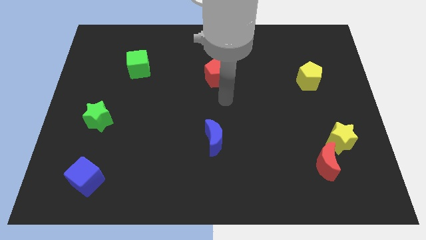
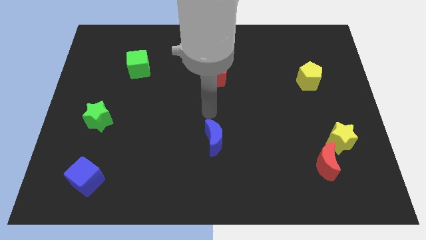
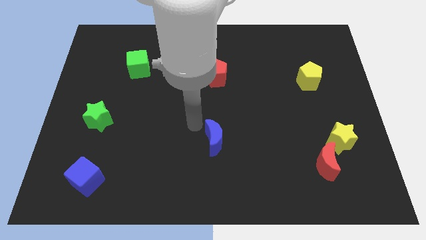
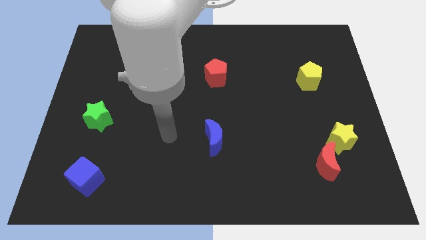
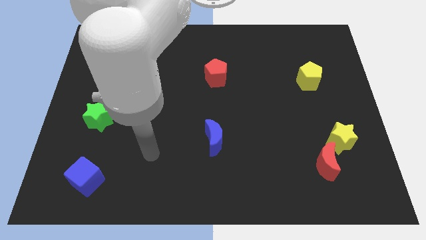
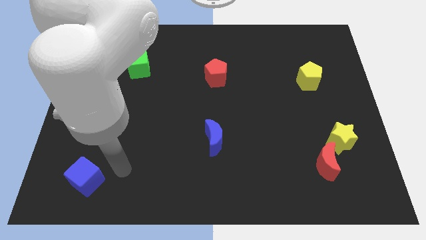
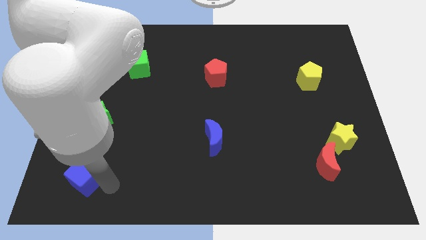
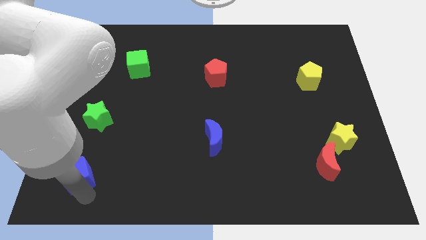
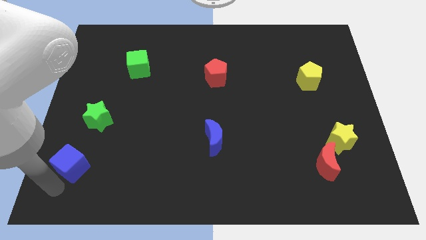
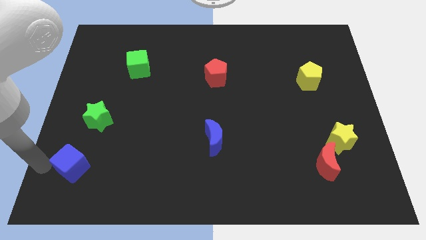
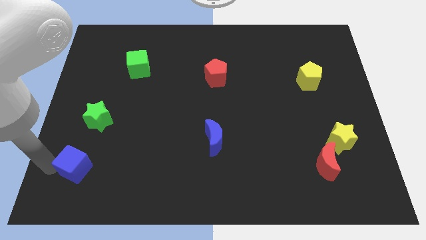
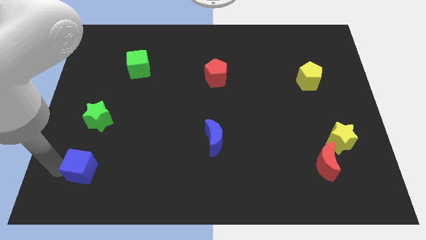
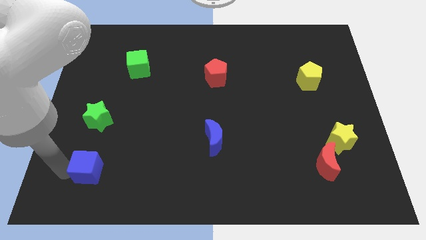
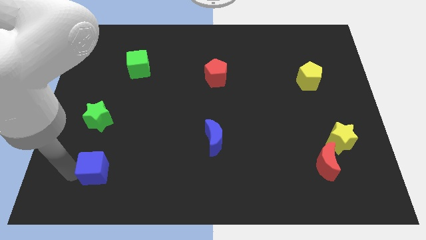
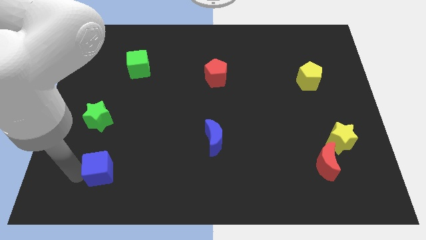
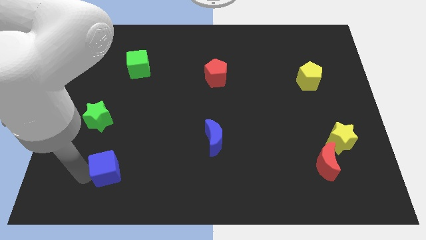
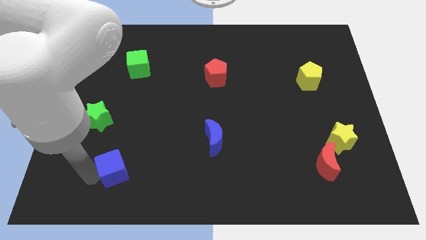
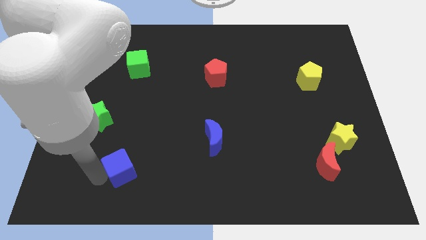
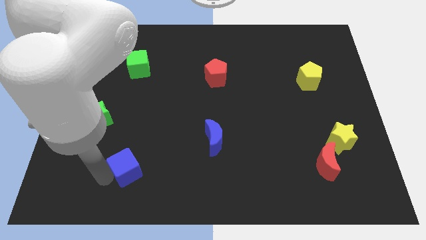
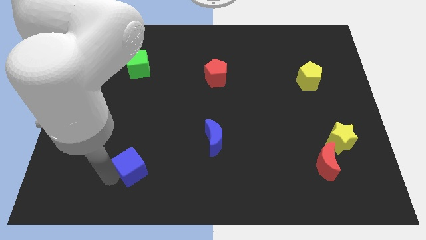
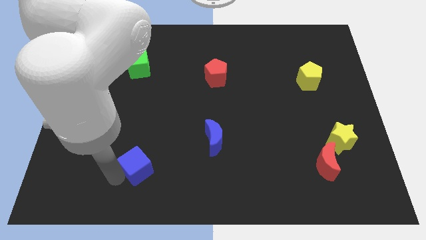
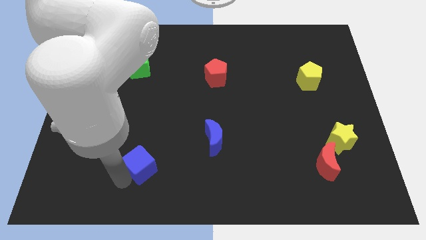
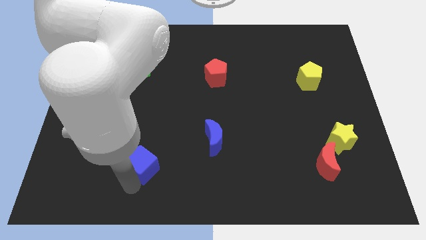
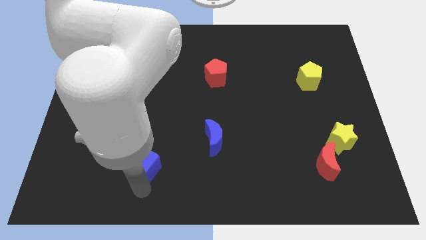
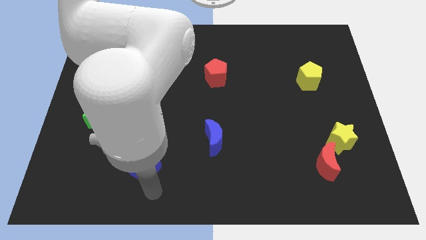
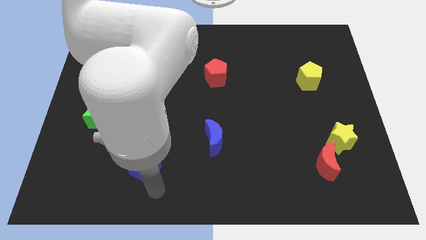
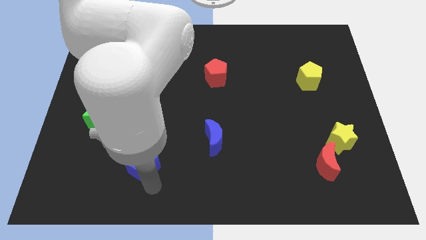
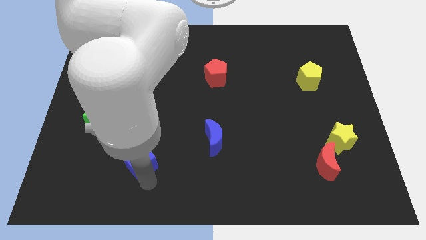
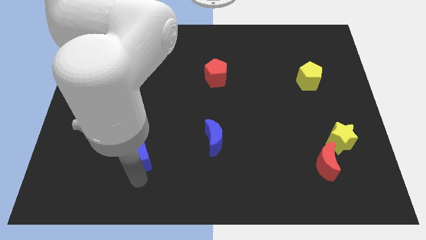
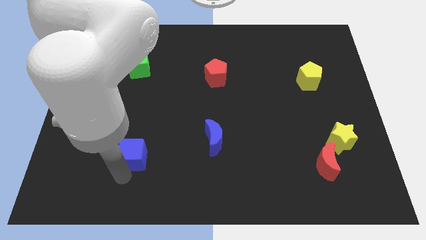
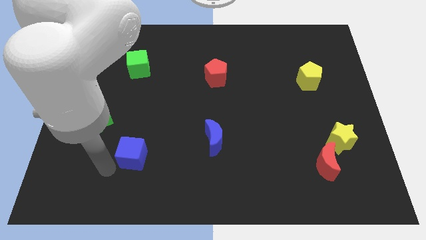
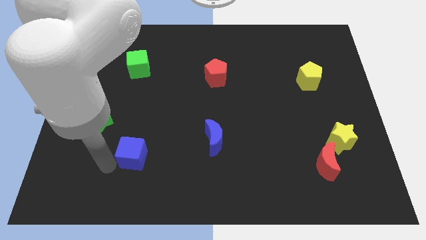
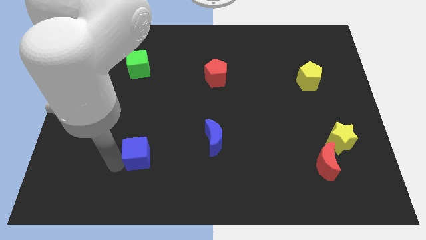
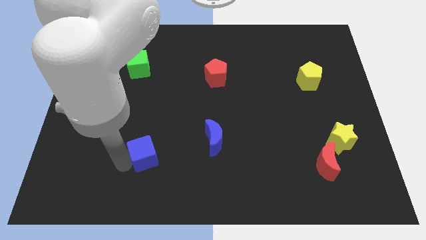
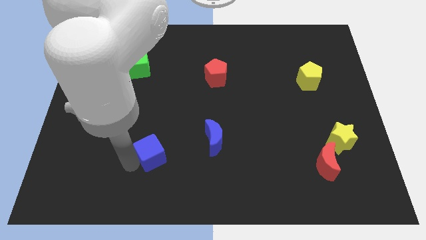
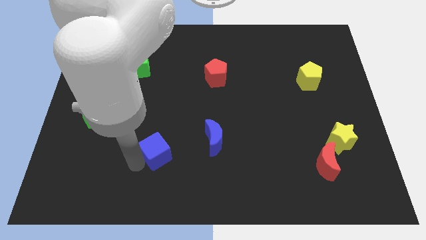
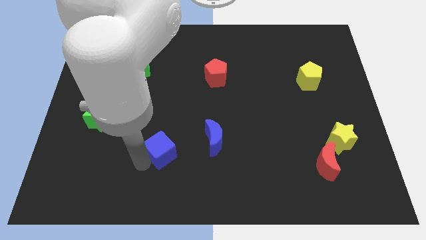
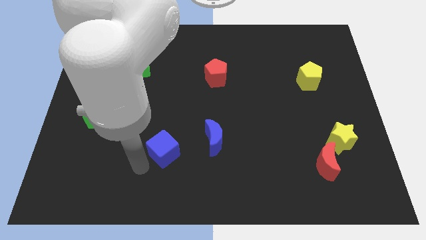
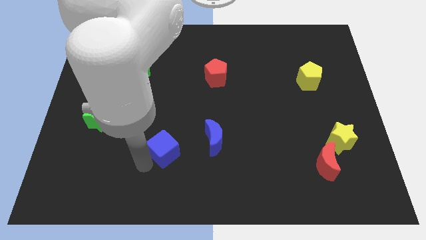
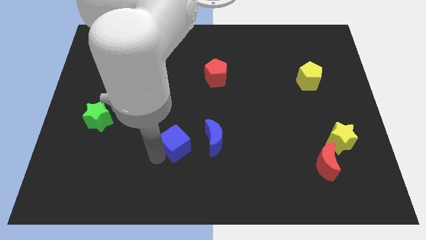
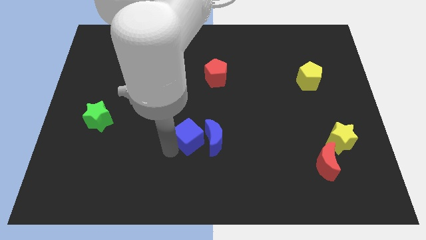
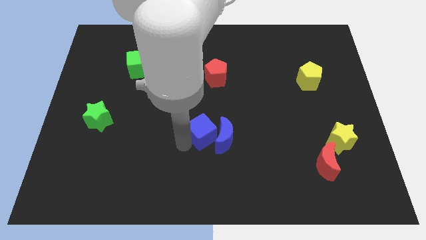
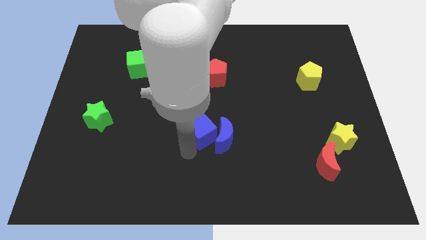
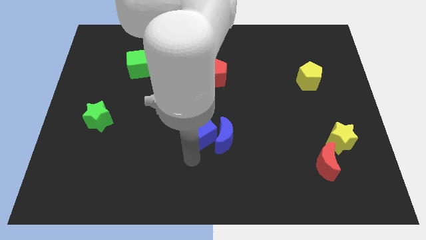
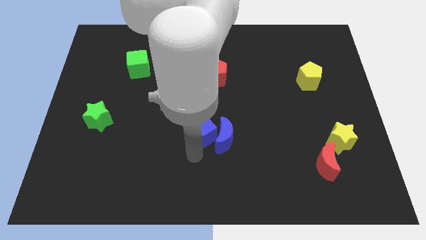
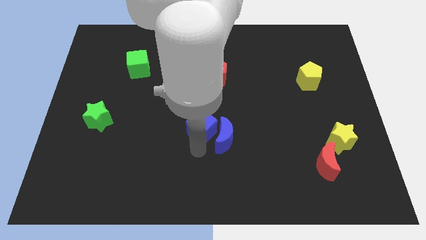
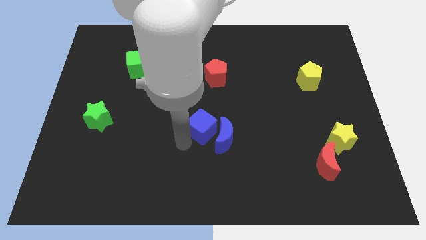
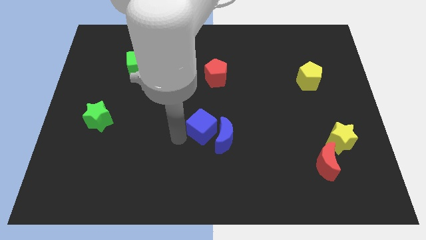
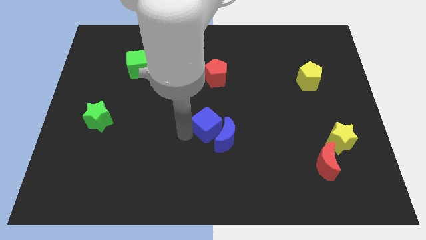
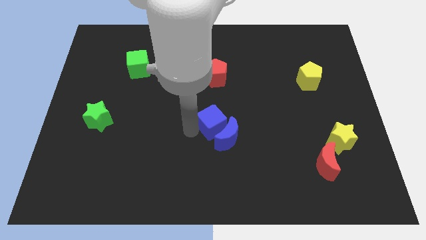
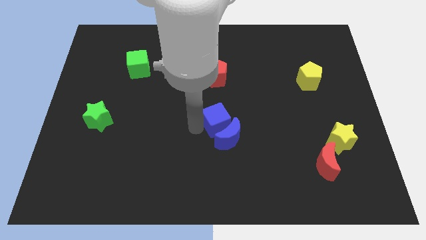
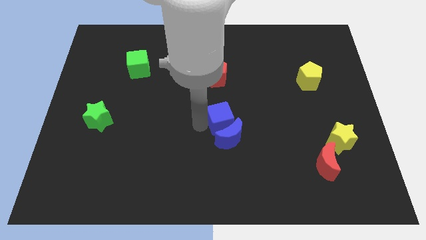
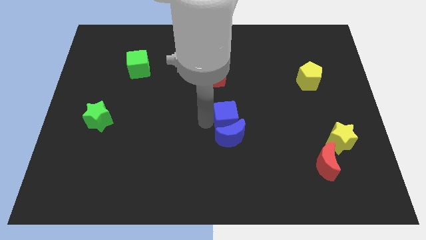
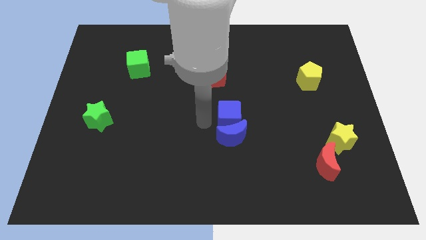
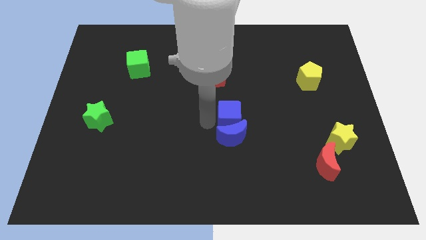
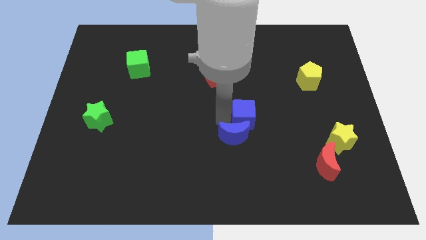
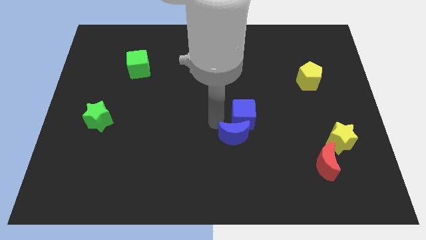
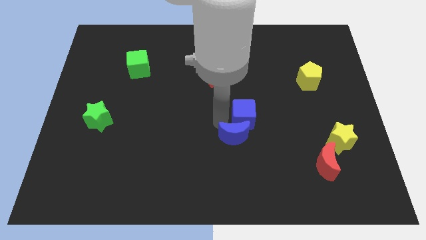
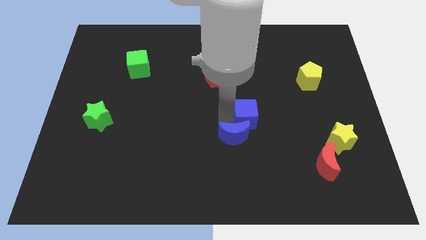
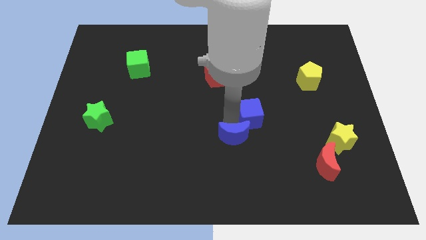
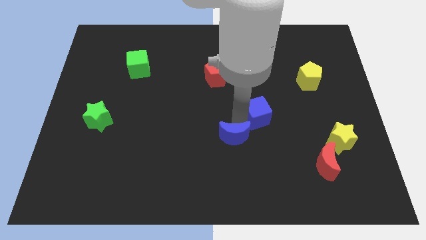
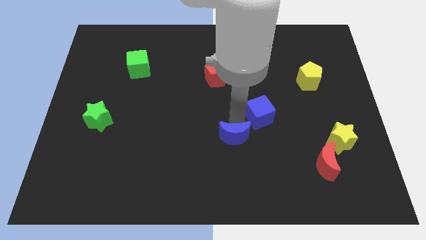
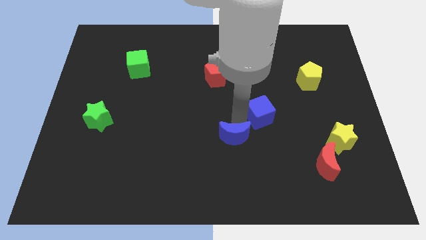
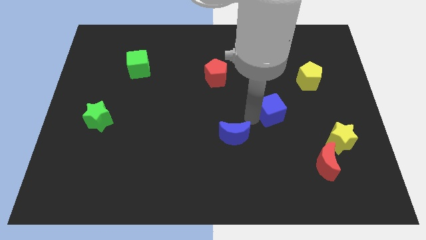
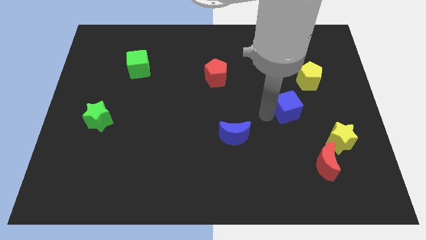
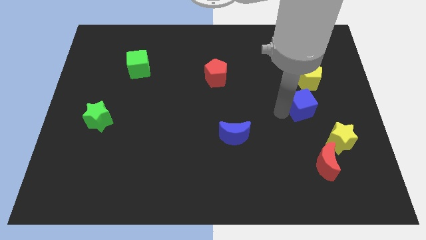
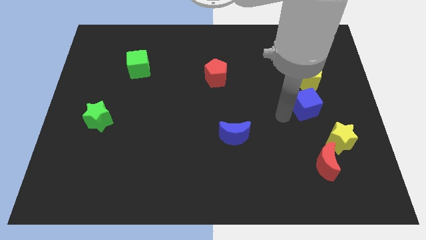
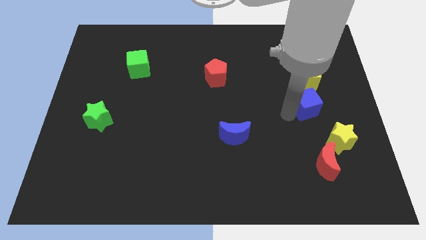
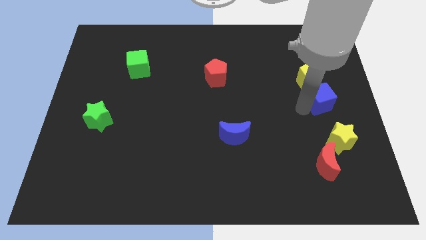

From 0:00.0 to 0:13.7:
move the blue cube to the bottom right side of the yellow pentagon

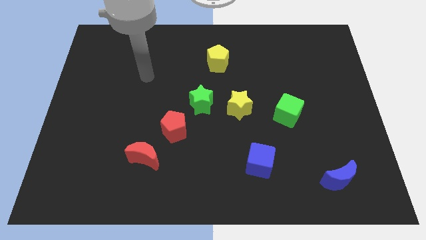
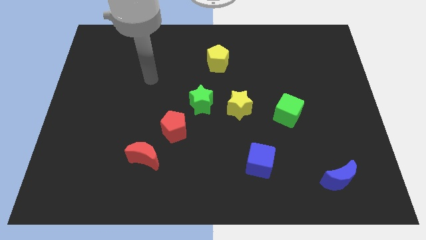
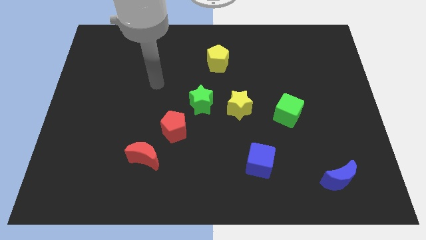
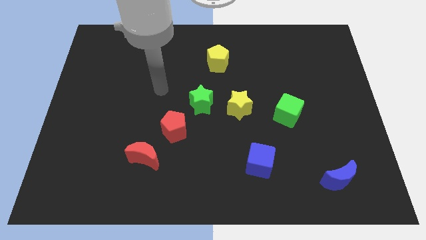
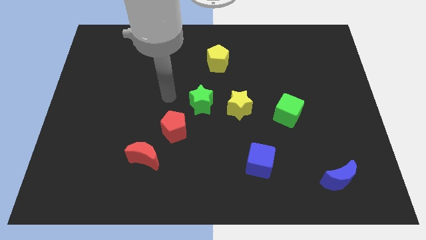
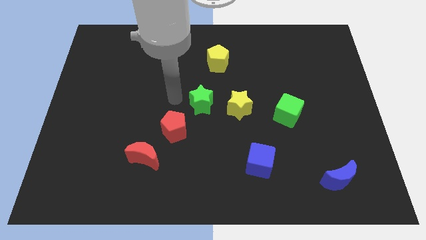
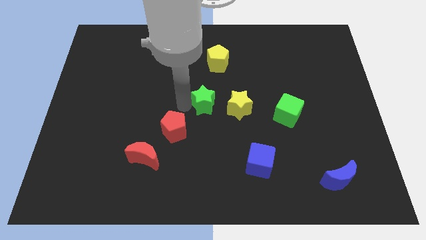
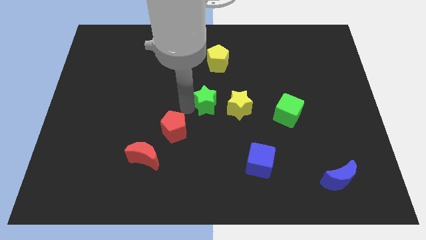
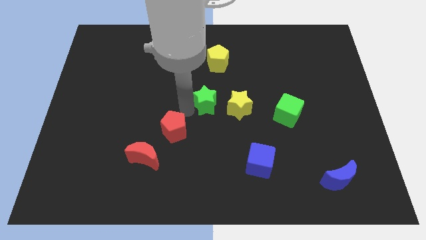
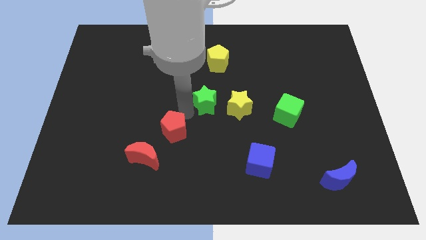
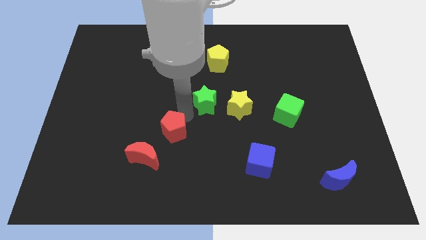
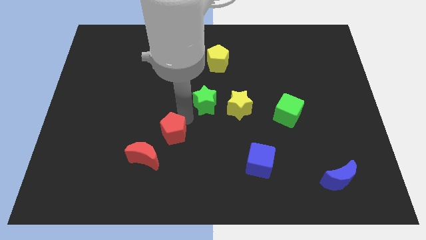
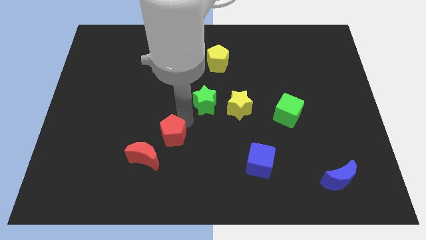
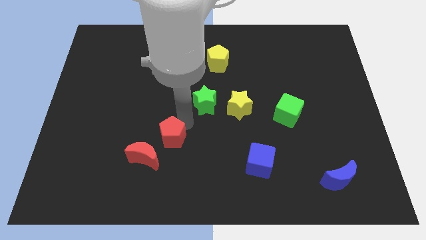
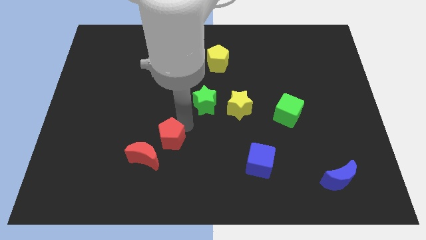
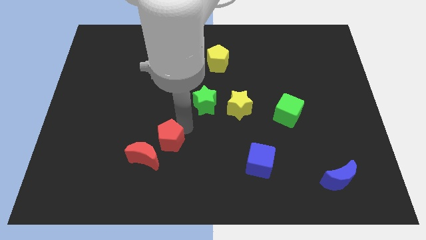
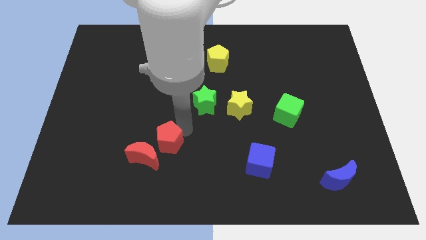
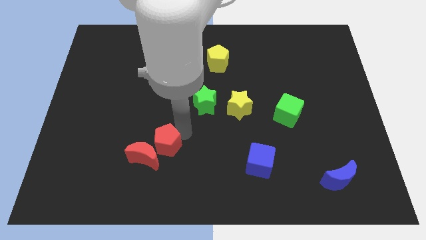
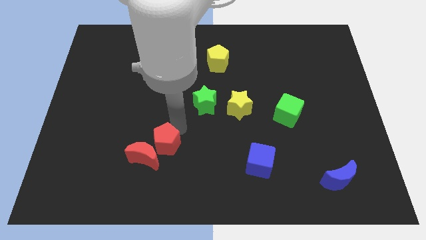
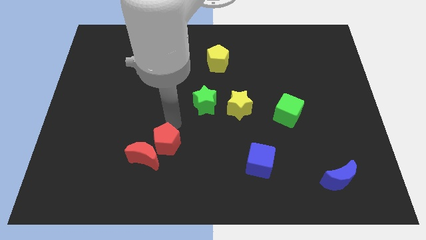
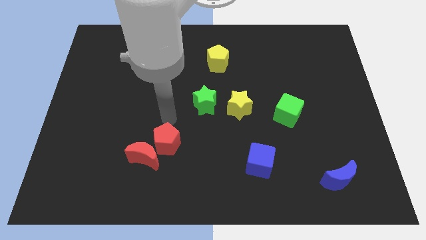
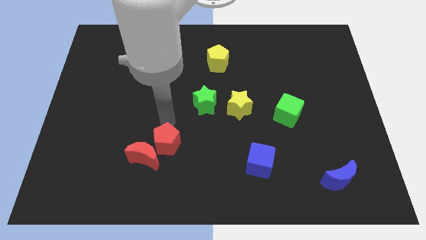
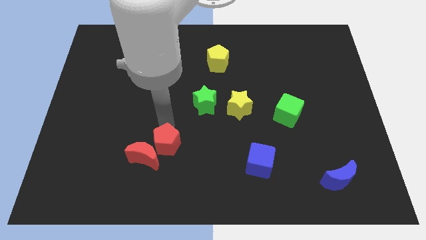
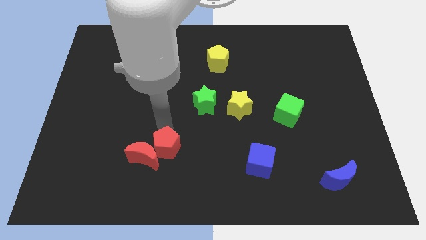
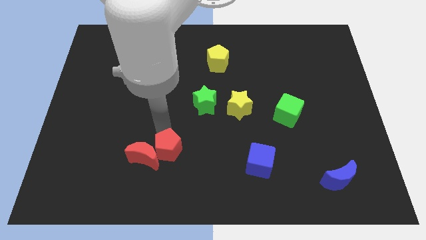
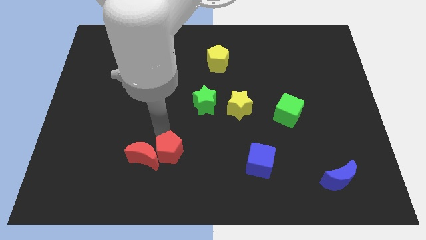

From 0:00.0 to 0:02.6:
put the red pentagon to the bottom right side of the red moon
